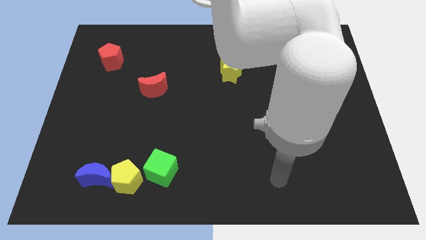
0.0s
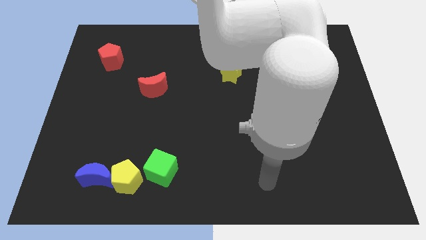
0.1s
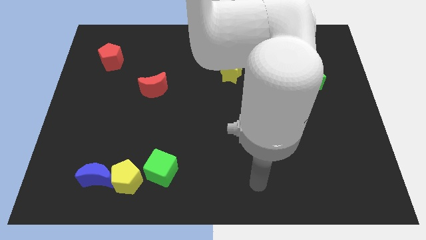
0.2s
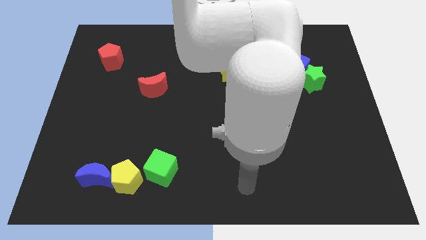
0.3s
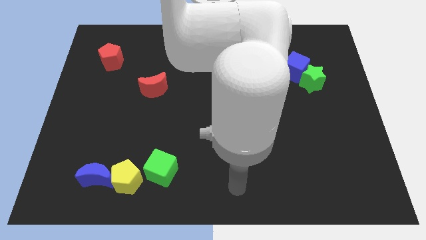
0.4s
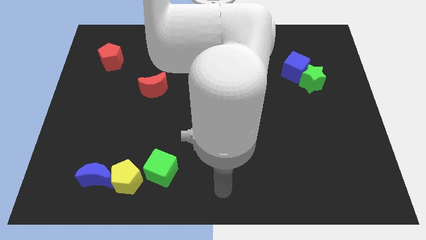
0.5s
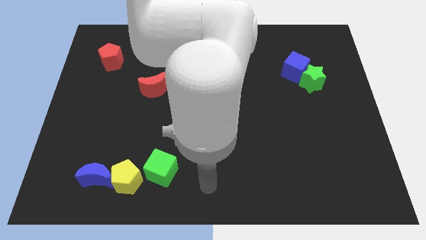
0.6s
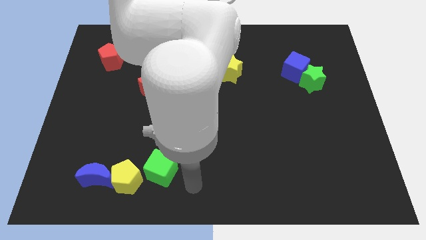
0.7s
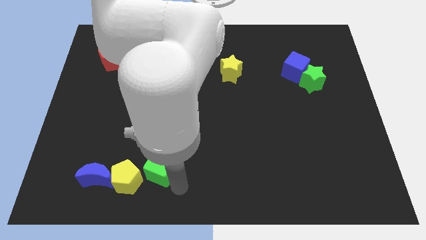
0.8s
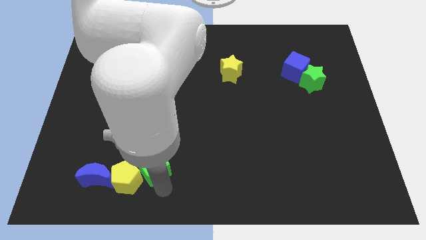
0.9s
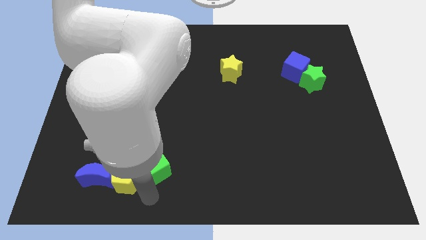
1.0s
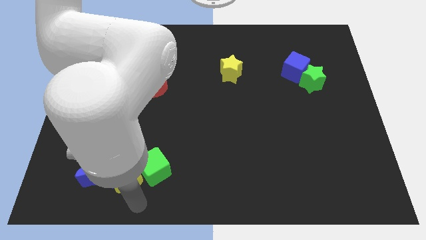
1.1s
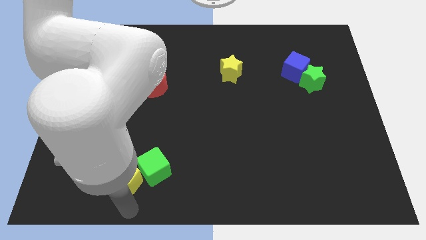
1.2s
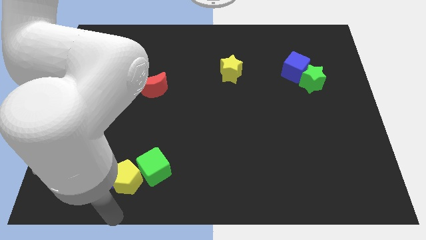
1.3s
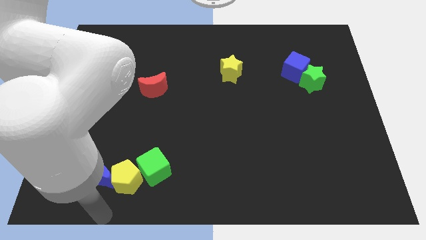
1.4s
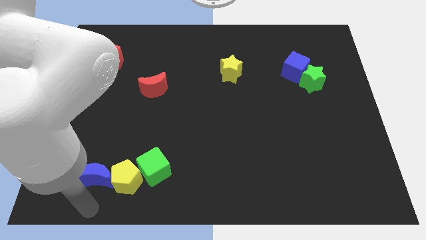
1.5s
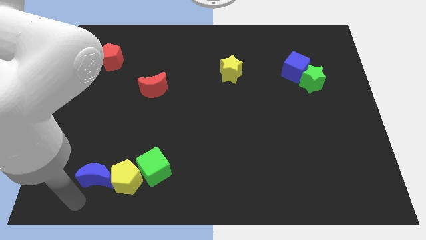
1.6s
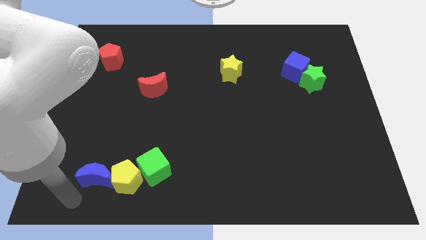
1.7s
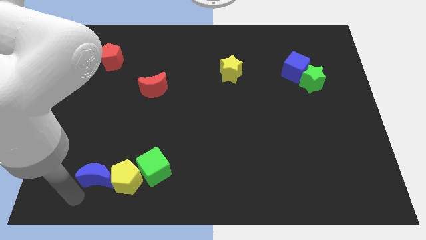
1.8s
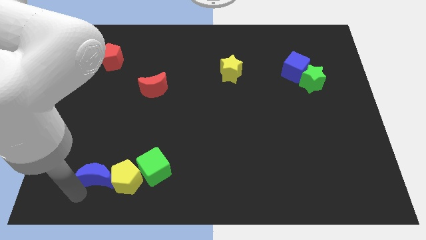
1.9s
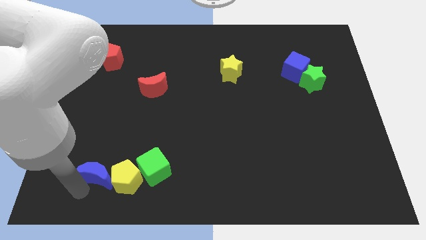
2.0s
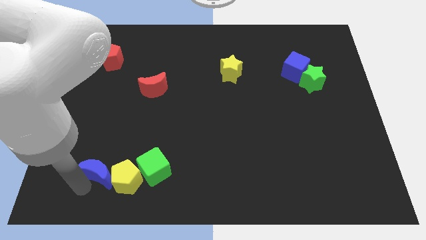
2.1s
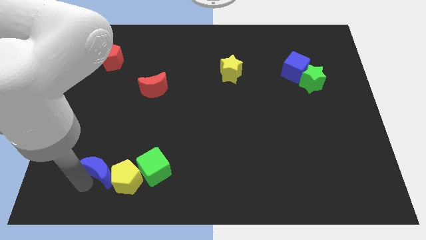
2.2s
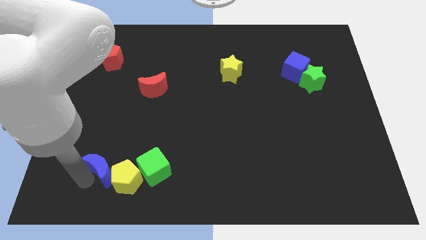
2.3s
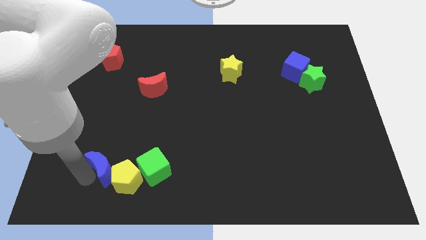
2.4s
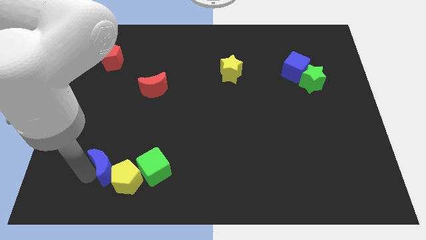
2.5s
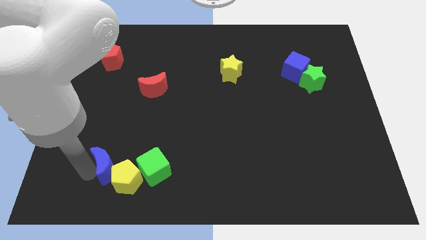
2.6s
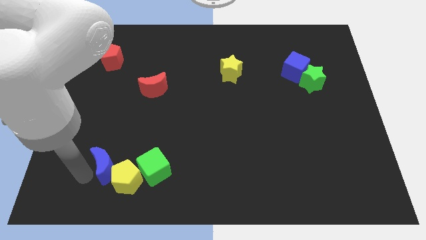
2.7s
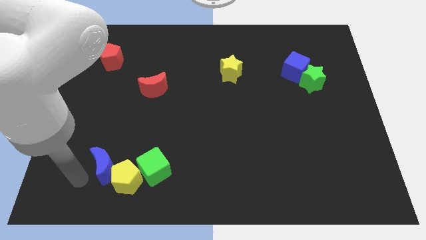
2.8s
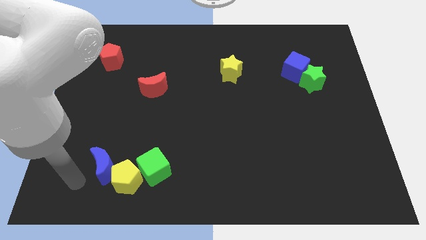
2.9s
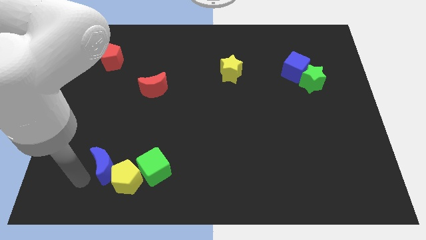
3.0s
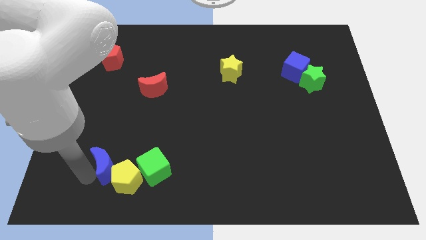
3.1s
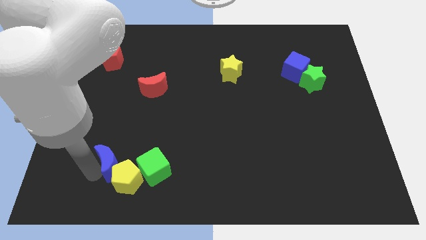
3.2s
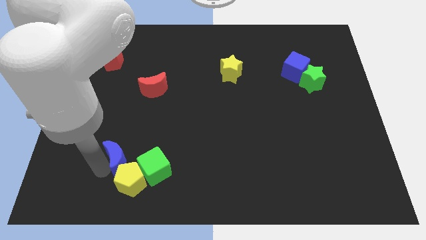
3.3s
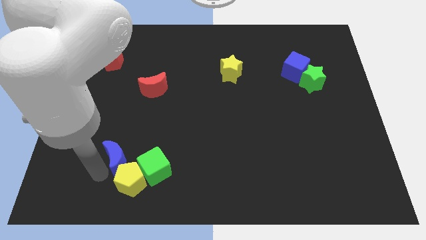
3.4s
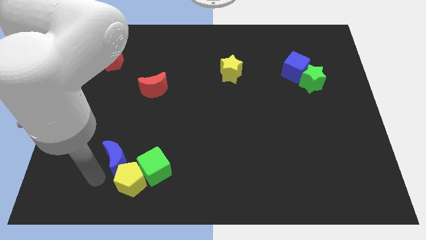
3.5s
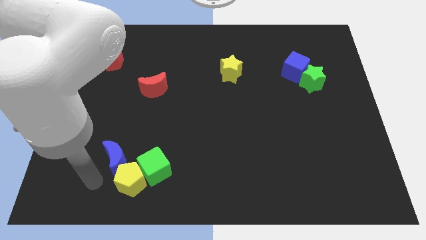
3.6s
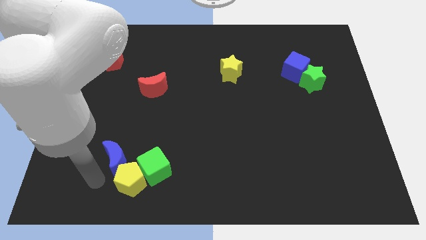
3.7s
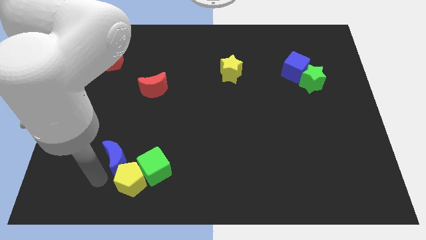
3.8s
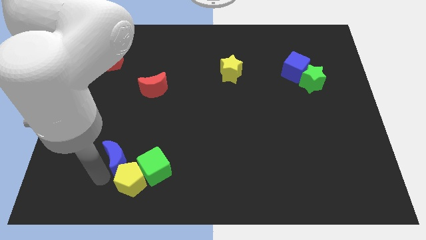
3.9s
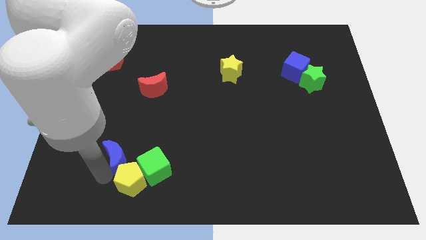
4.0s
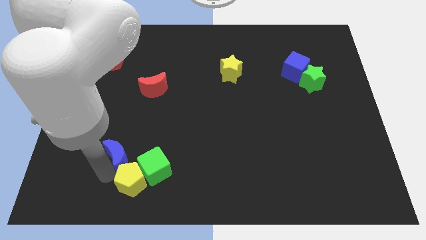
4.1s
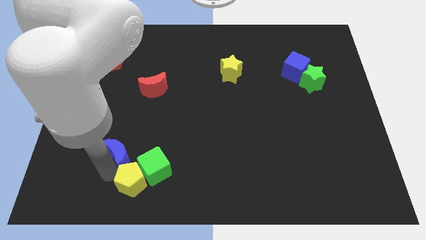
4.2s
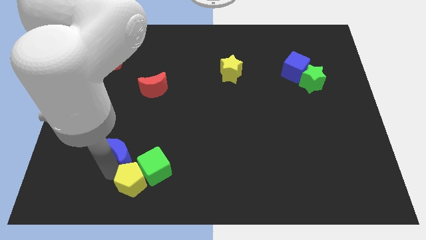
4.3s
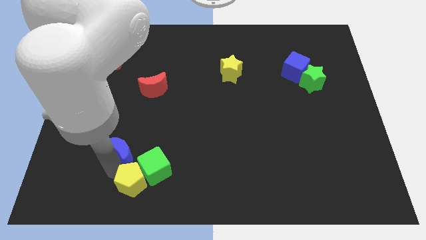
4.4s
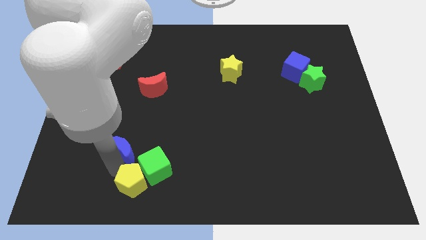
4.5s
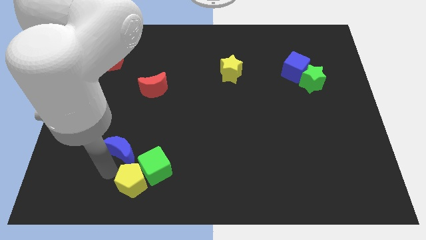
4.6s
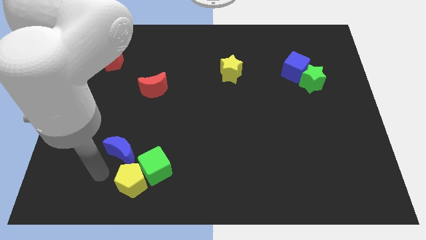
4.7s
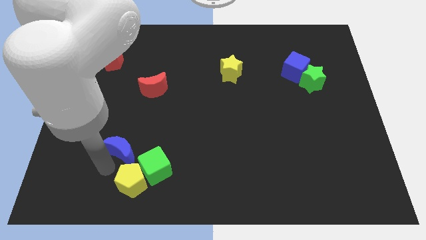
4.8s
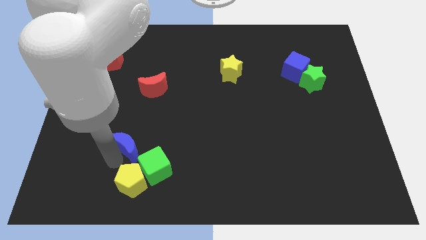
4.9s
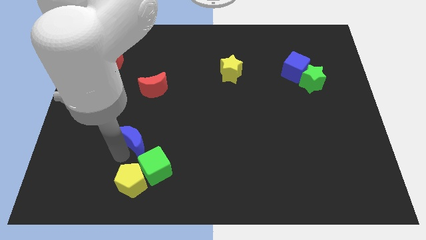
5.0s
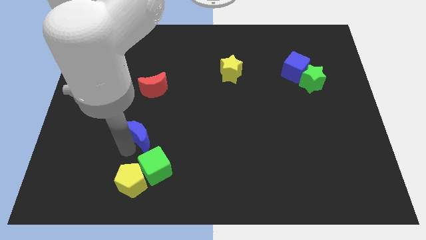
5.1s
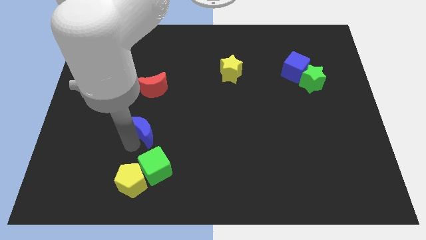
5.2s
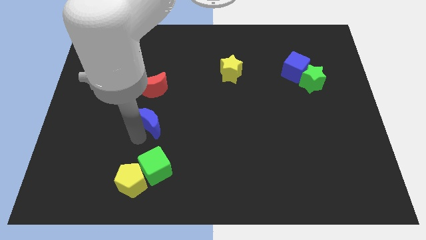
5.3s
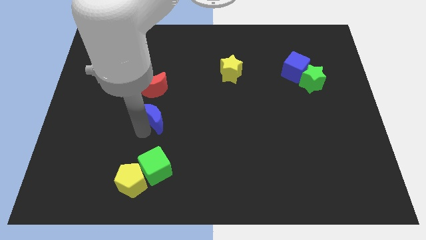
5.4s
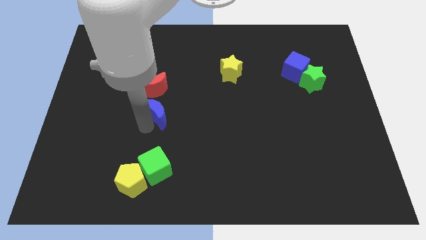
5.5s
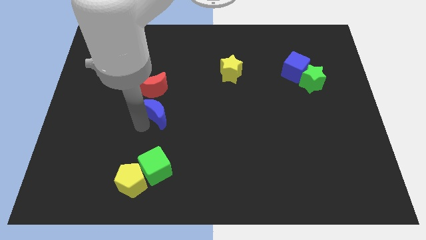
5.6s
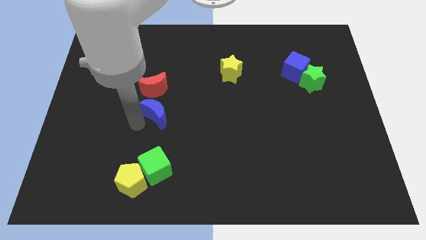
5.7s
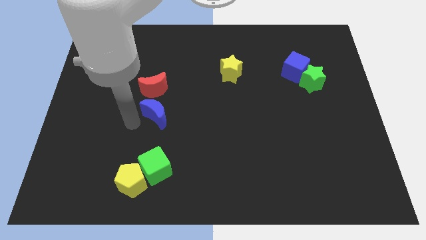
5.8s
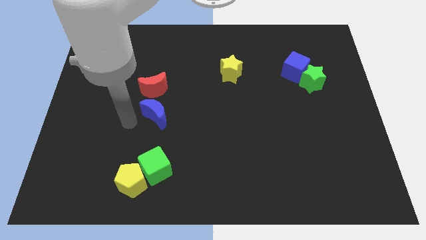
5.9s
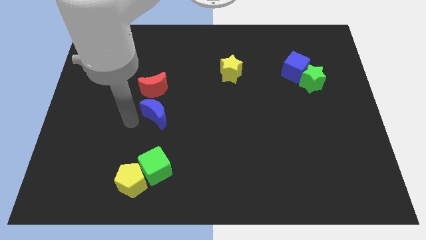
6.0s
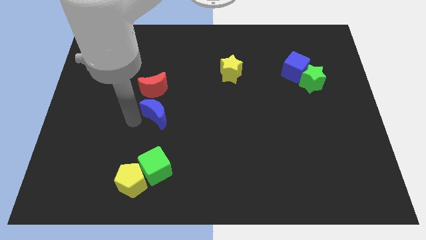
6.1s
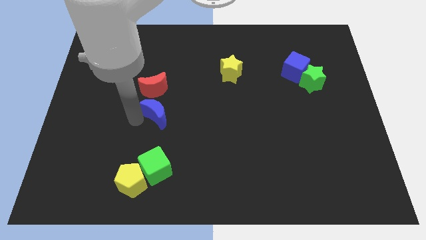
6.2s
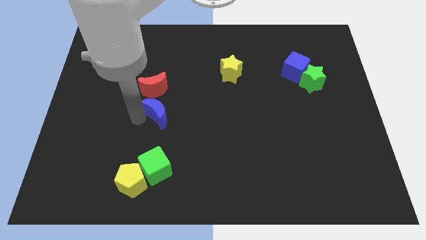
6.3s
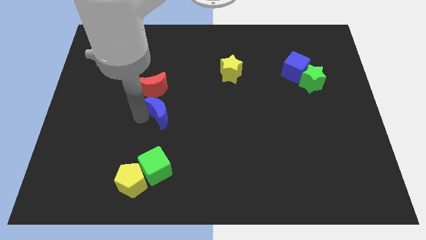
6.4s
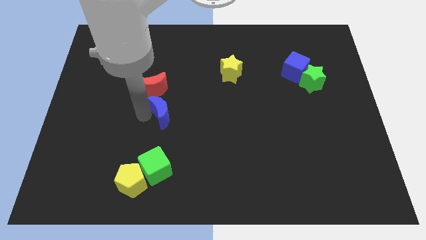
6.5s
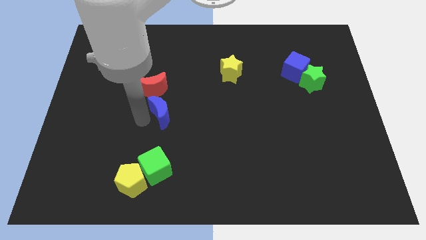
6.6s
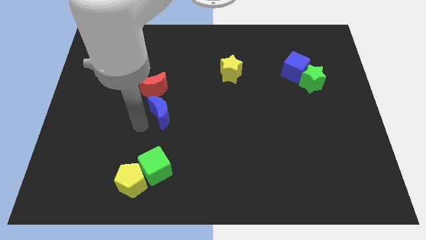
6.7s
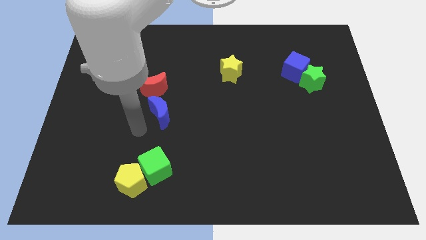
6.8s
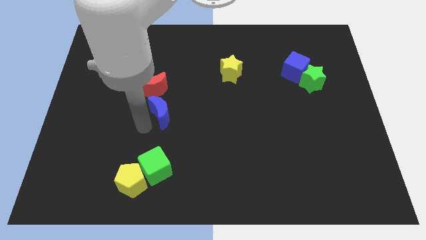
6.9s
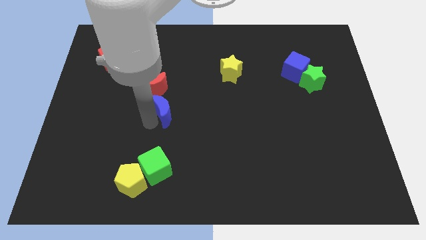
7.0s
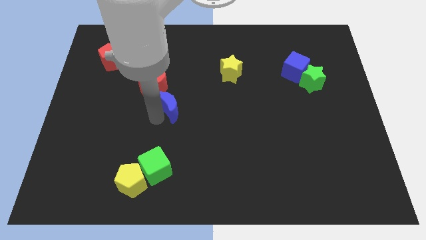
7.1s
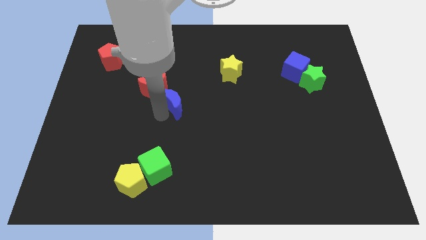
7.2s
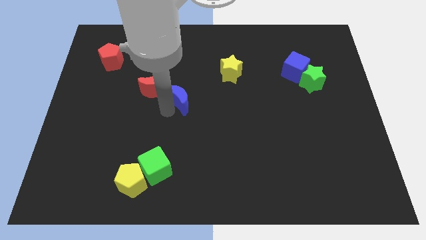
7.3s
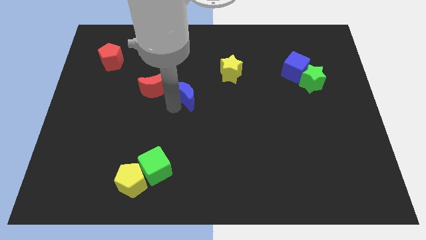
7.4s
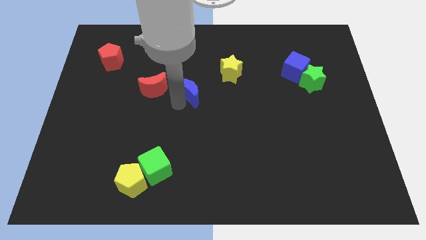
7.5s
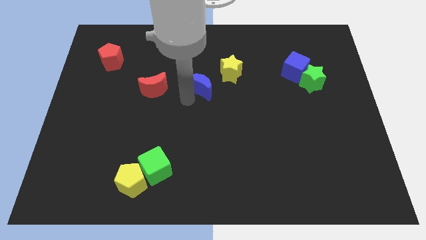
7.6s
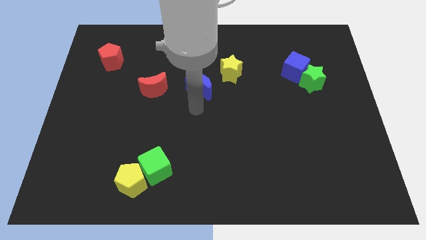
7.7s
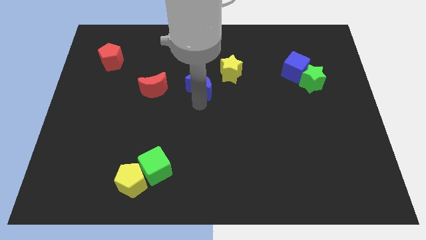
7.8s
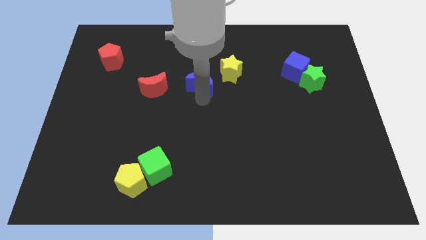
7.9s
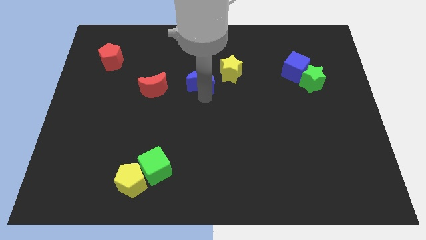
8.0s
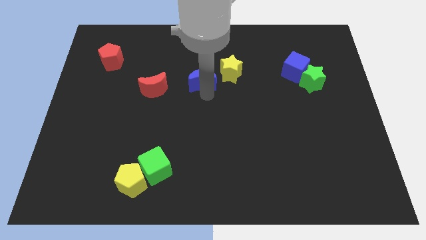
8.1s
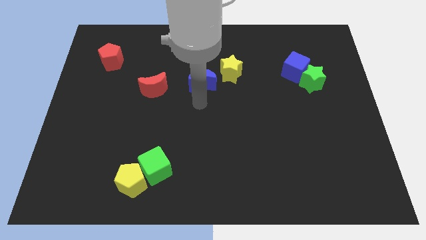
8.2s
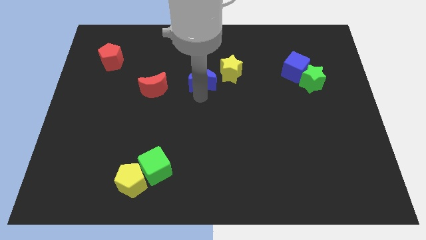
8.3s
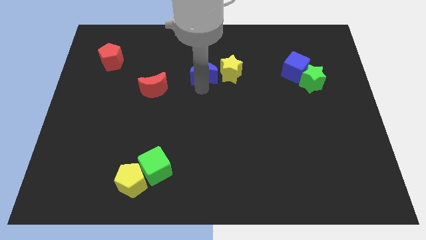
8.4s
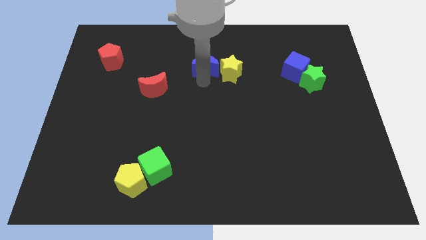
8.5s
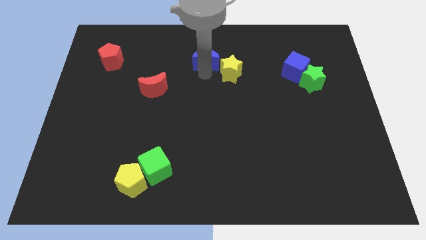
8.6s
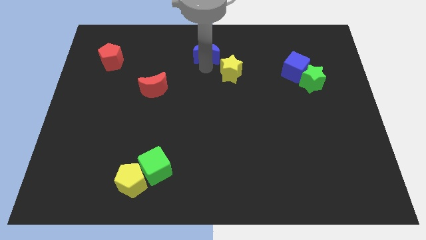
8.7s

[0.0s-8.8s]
put the blue moon to the top
